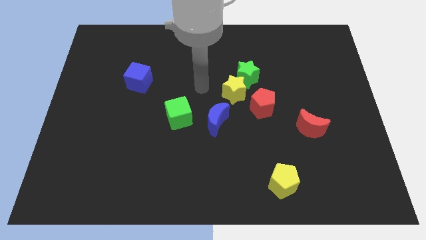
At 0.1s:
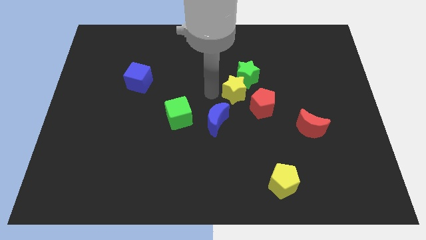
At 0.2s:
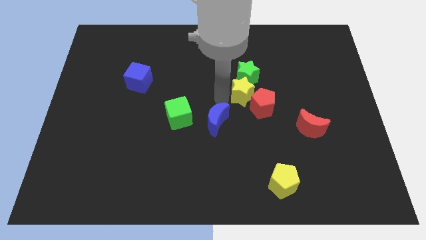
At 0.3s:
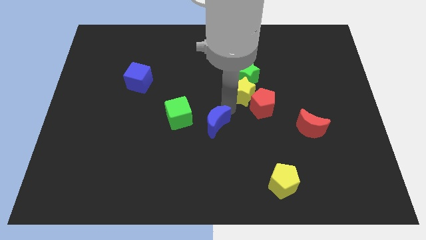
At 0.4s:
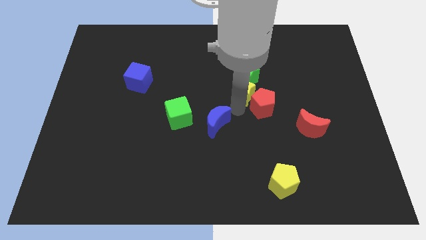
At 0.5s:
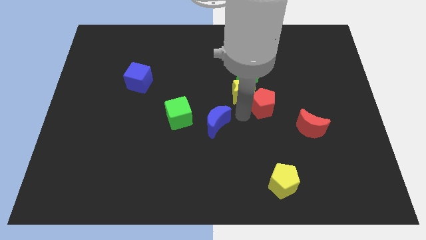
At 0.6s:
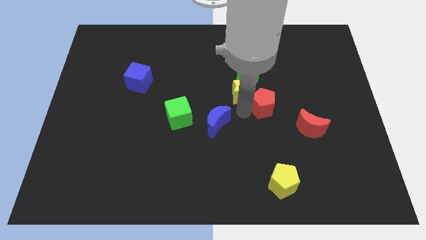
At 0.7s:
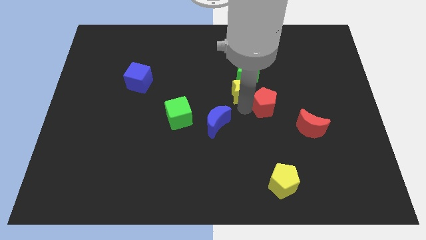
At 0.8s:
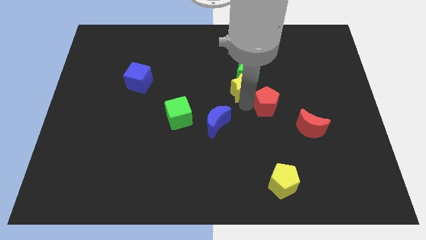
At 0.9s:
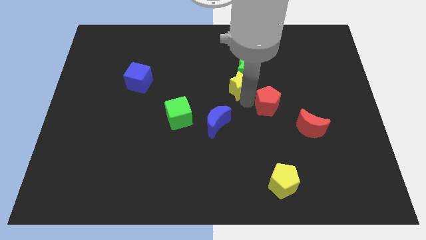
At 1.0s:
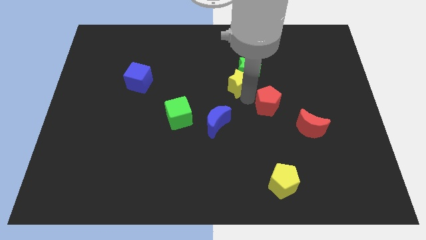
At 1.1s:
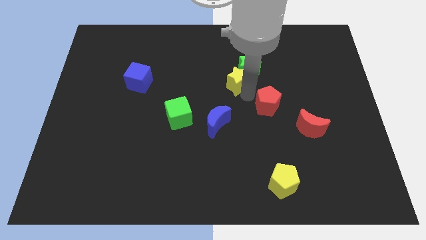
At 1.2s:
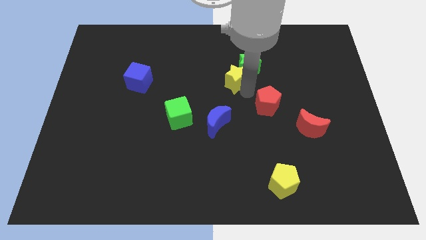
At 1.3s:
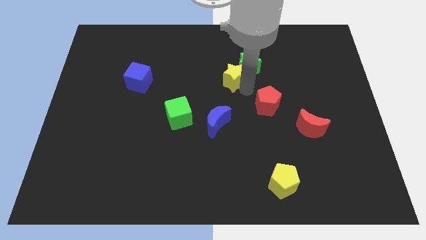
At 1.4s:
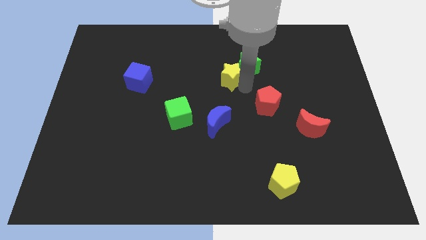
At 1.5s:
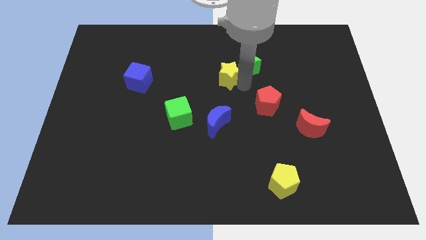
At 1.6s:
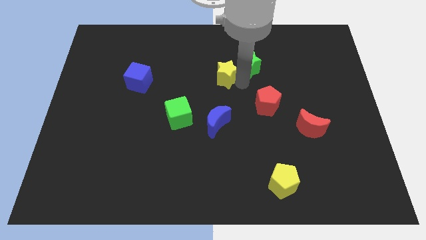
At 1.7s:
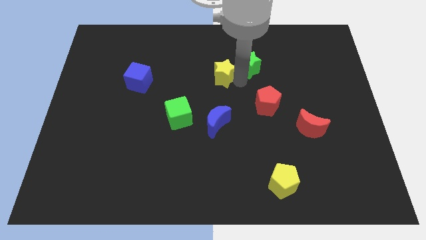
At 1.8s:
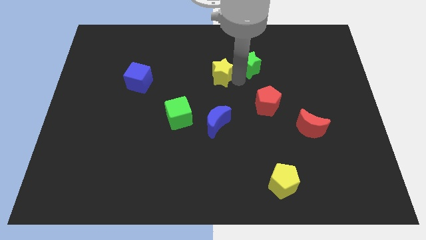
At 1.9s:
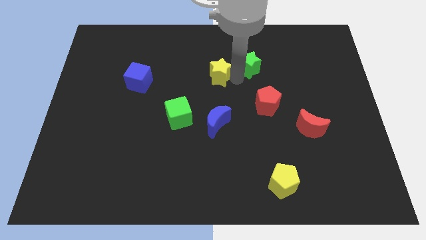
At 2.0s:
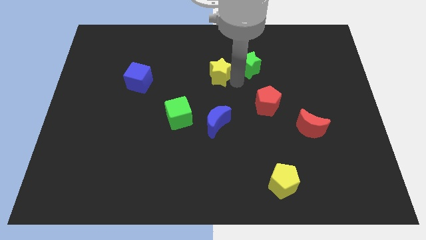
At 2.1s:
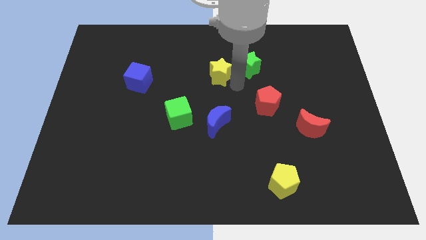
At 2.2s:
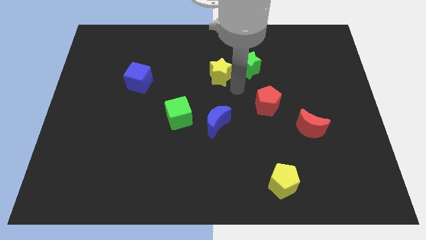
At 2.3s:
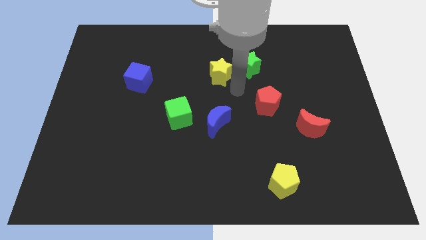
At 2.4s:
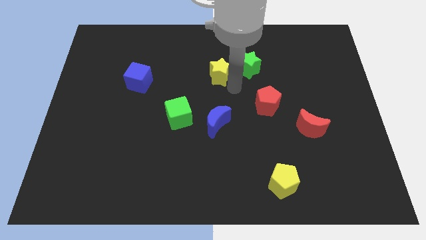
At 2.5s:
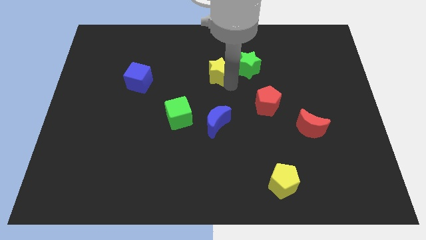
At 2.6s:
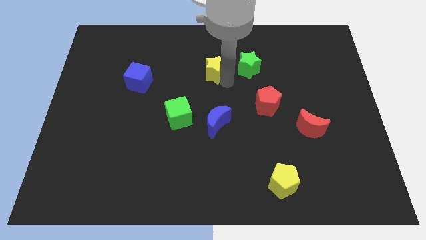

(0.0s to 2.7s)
separate the yellow star from the clump

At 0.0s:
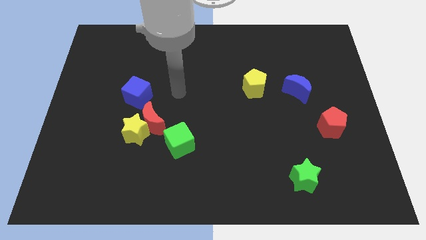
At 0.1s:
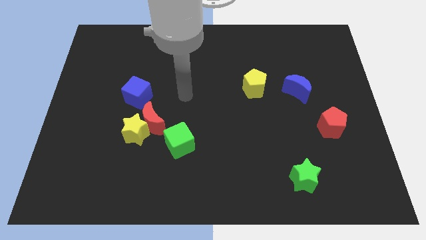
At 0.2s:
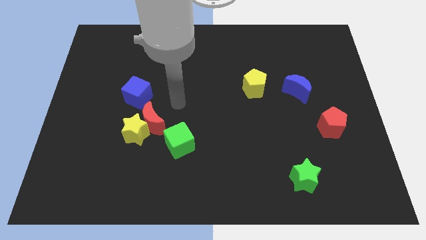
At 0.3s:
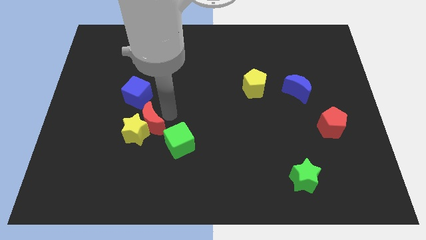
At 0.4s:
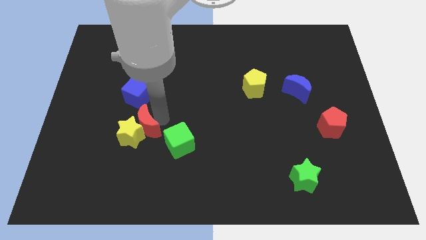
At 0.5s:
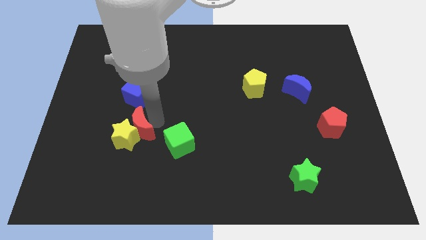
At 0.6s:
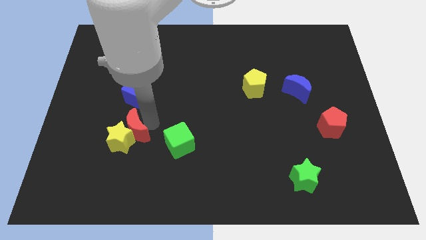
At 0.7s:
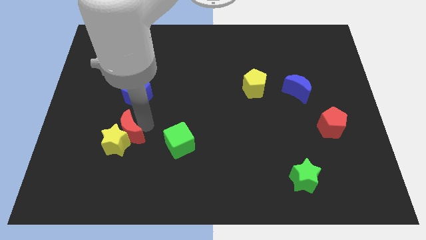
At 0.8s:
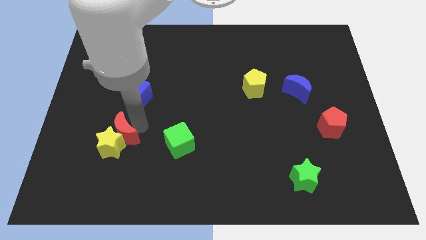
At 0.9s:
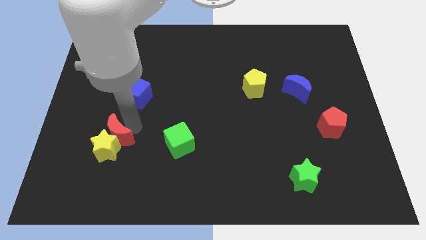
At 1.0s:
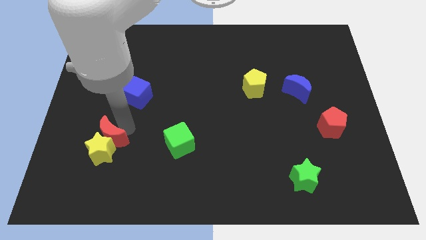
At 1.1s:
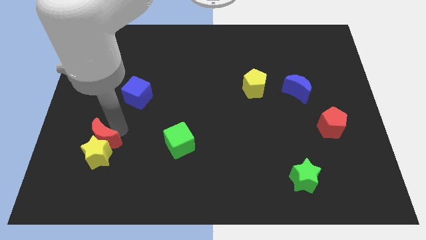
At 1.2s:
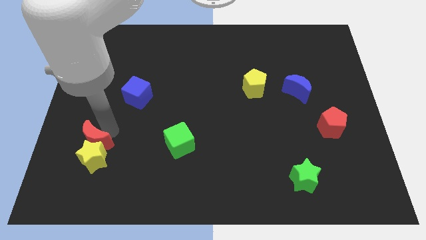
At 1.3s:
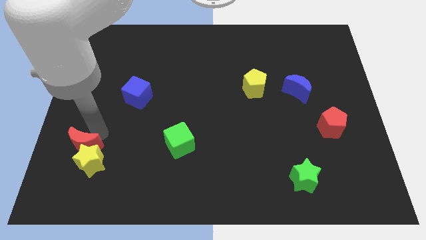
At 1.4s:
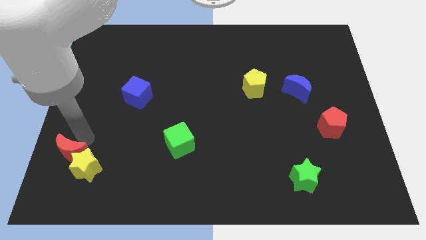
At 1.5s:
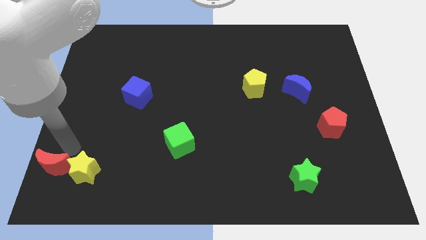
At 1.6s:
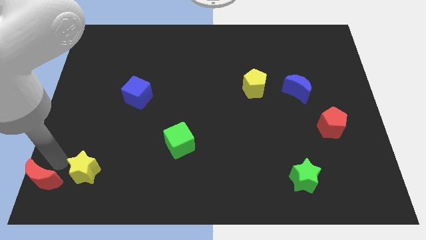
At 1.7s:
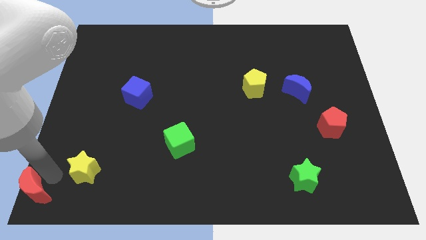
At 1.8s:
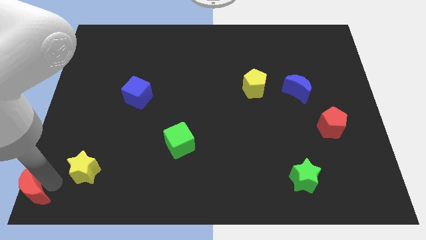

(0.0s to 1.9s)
pull the yellow star apart from the red moon

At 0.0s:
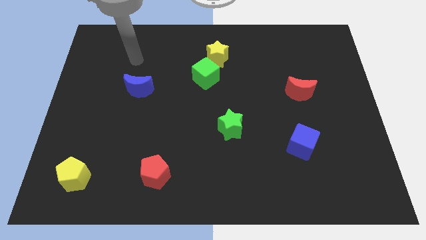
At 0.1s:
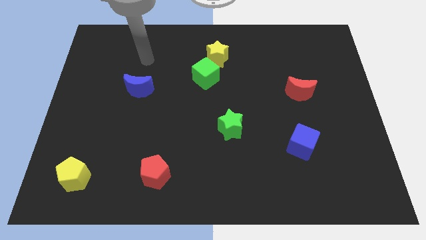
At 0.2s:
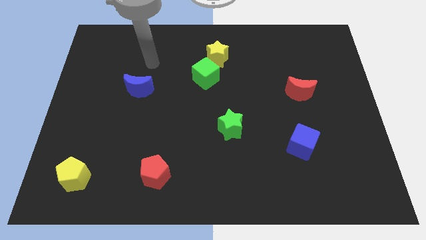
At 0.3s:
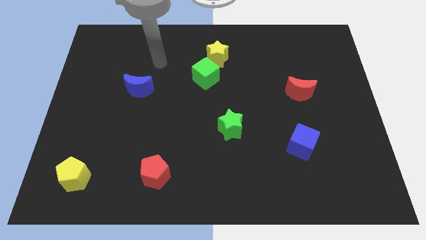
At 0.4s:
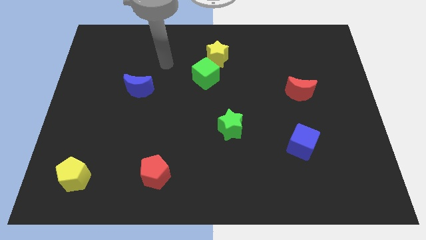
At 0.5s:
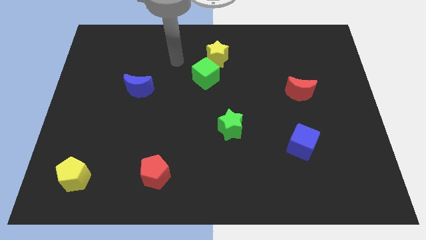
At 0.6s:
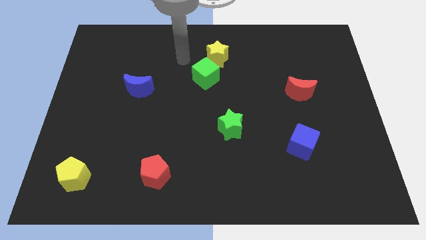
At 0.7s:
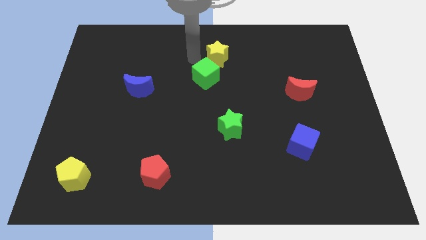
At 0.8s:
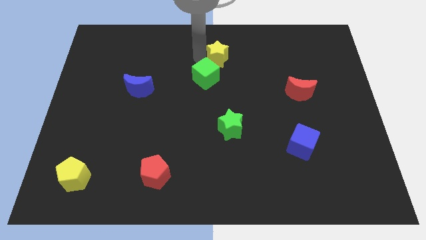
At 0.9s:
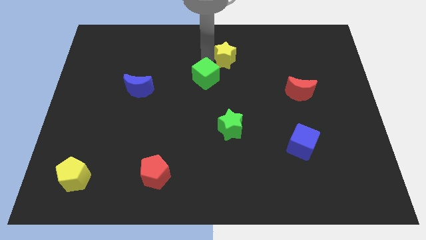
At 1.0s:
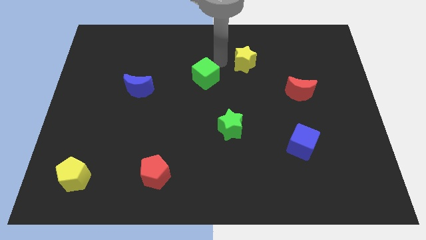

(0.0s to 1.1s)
pull the green cube apart from the yellow star

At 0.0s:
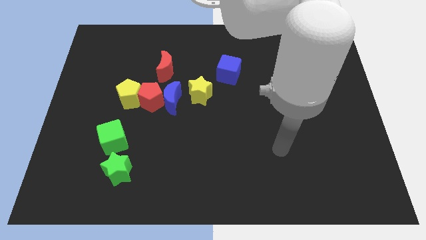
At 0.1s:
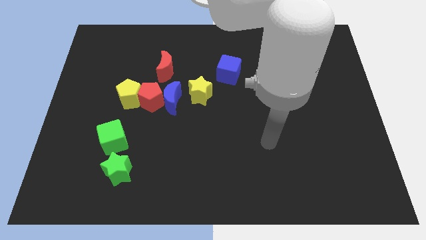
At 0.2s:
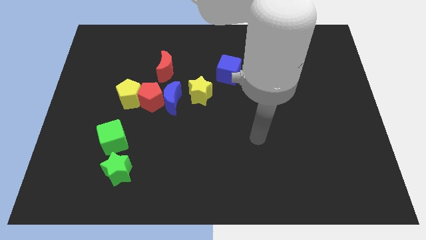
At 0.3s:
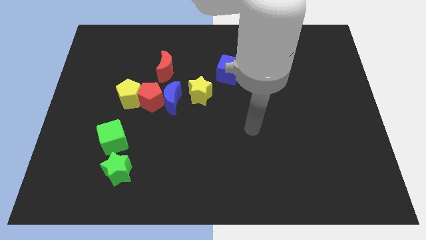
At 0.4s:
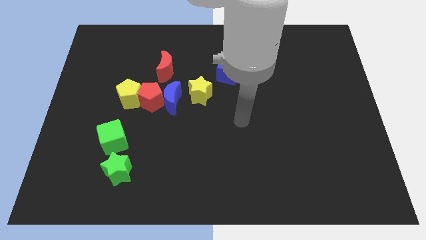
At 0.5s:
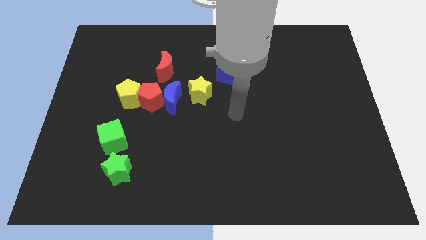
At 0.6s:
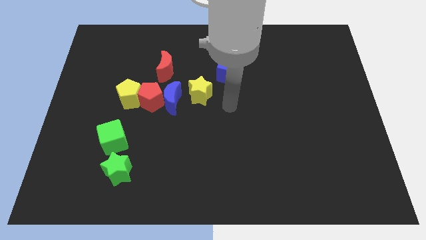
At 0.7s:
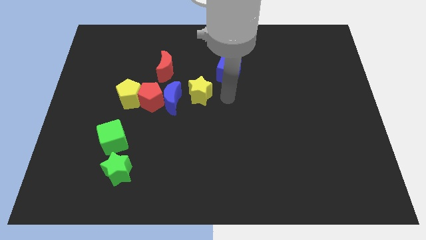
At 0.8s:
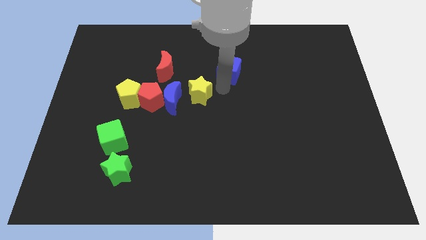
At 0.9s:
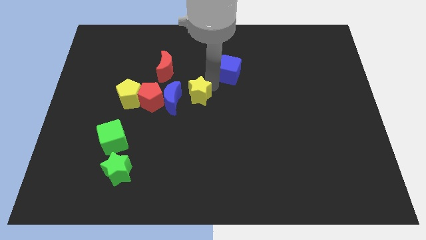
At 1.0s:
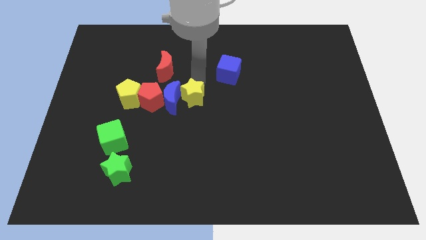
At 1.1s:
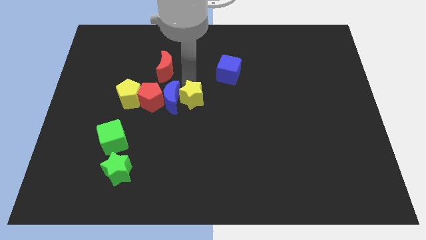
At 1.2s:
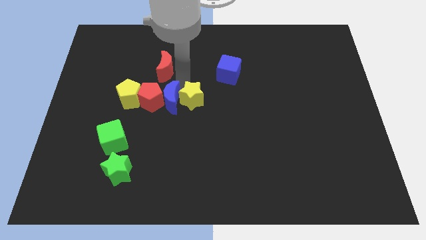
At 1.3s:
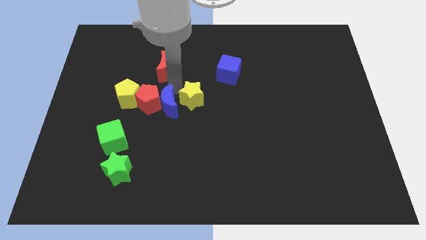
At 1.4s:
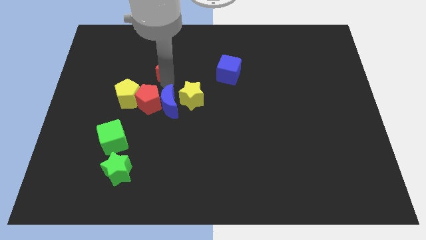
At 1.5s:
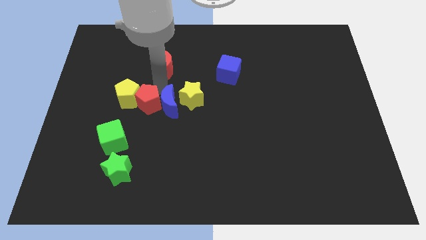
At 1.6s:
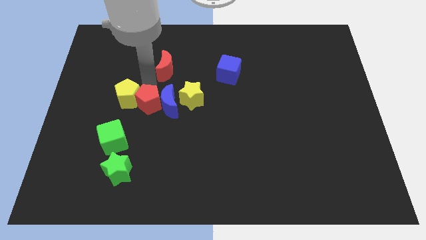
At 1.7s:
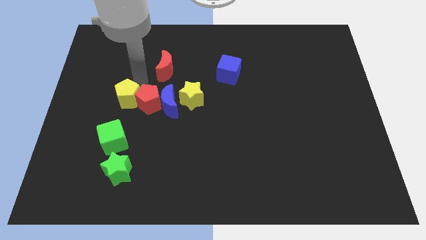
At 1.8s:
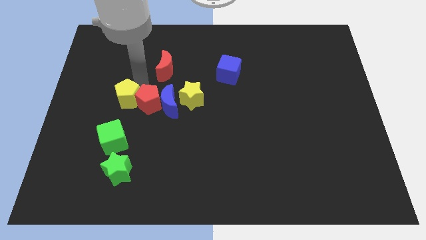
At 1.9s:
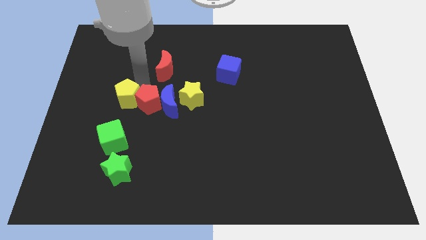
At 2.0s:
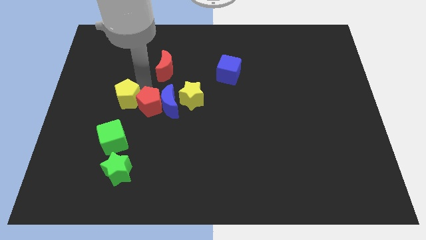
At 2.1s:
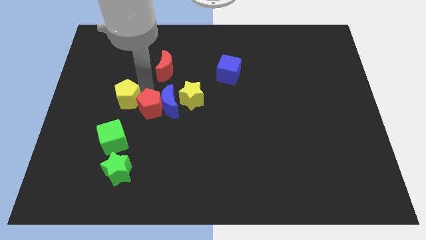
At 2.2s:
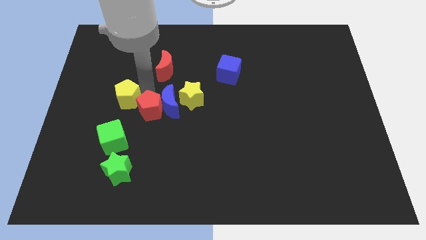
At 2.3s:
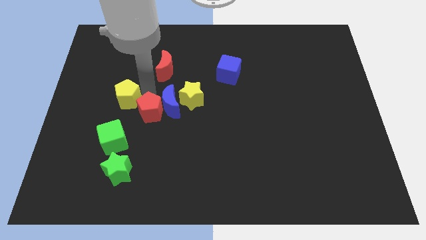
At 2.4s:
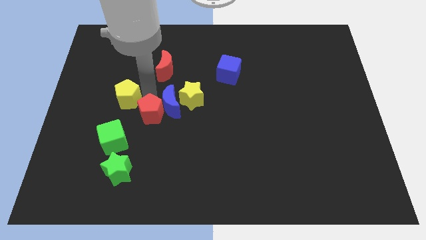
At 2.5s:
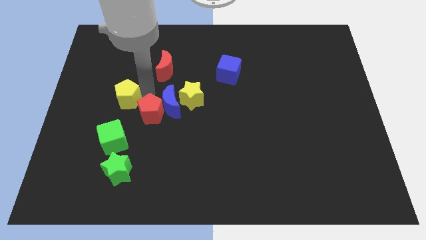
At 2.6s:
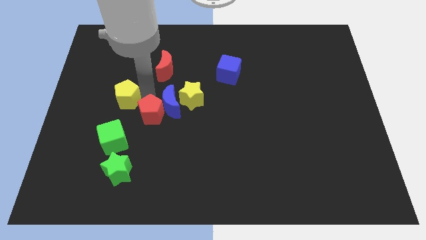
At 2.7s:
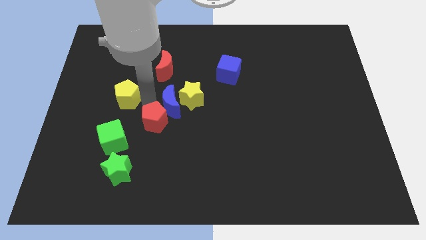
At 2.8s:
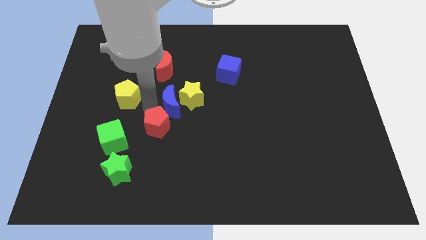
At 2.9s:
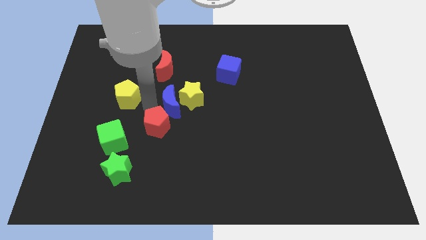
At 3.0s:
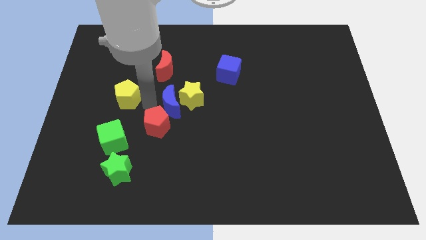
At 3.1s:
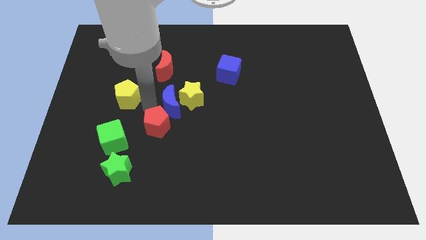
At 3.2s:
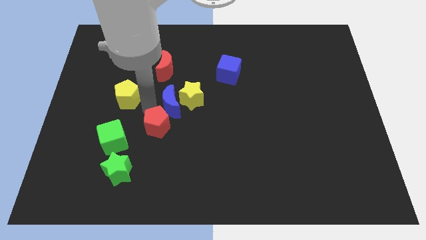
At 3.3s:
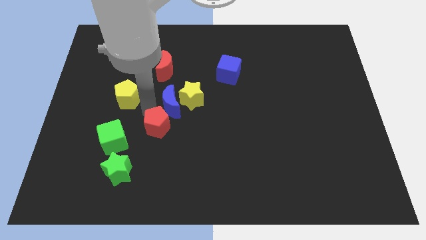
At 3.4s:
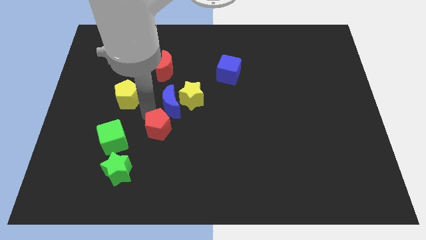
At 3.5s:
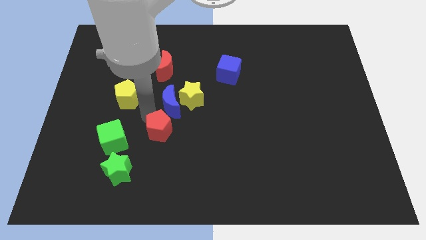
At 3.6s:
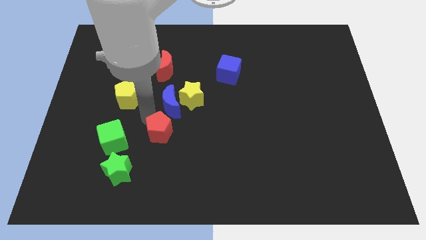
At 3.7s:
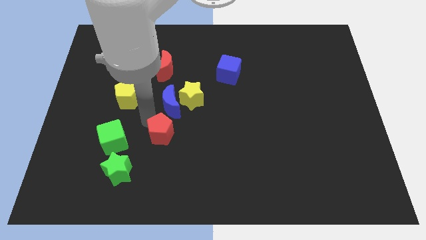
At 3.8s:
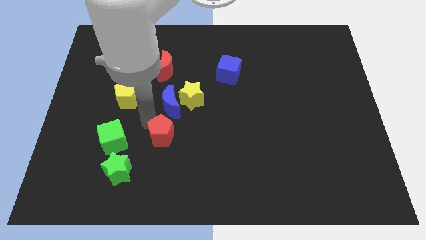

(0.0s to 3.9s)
move the red pentagon away from the blue moon and yellow pentagon

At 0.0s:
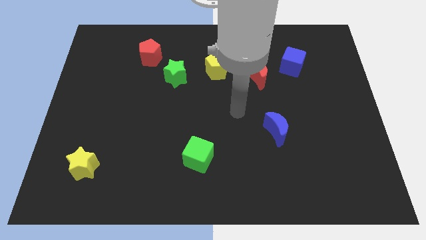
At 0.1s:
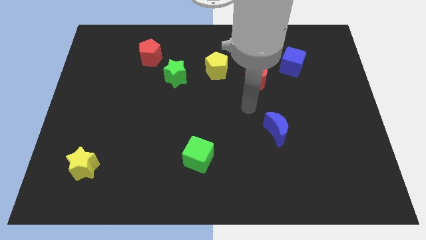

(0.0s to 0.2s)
separate the red moon from the blue cube
